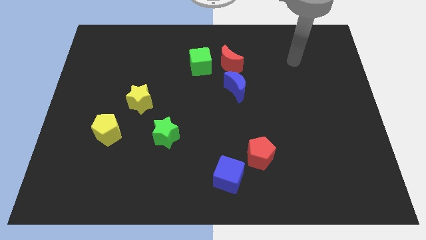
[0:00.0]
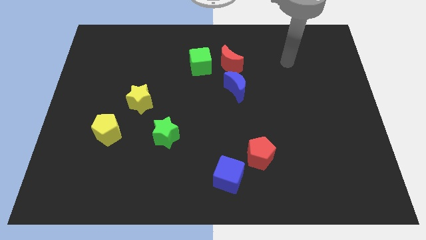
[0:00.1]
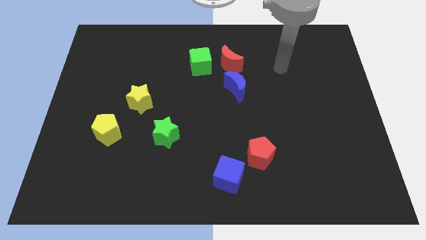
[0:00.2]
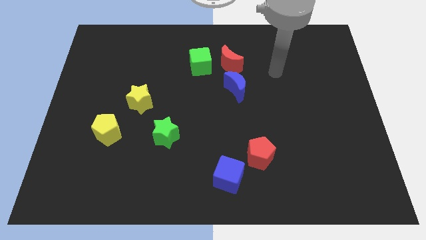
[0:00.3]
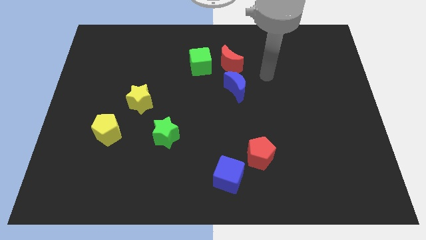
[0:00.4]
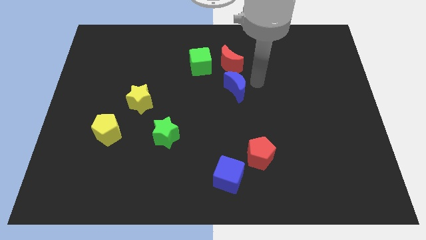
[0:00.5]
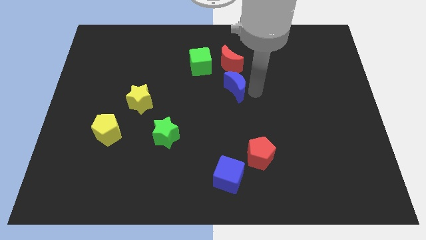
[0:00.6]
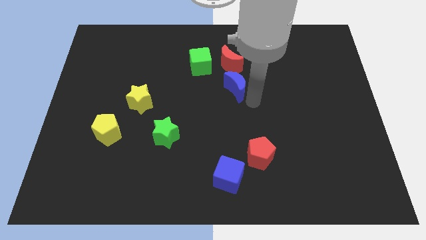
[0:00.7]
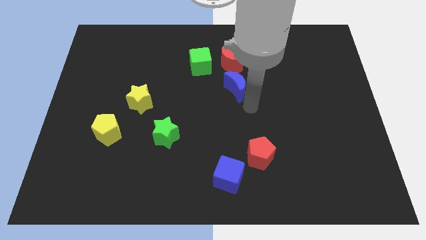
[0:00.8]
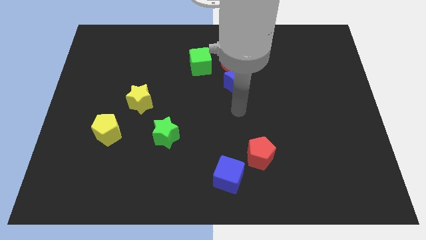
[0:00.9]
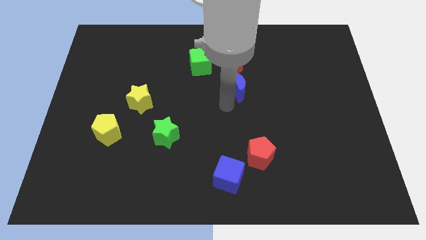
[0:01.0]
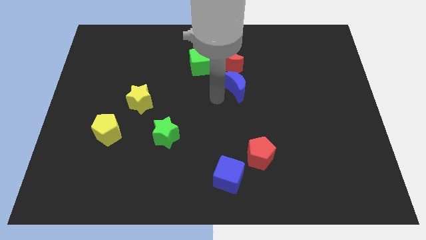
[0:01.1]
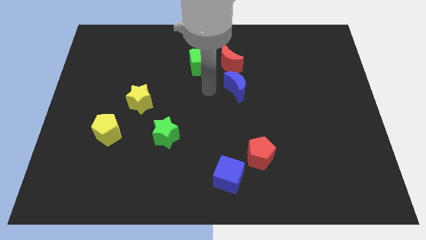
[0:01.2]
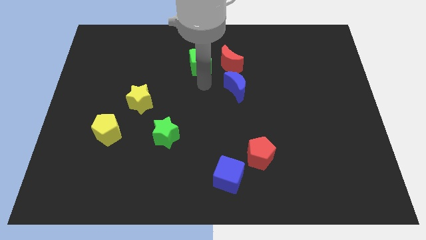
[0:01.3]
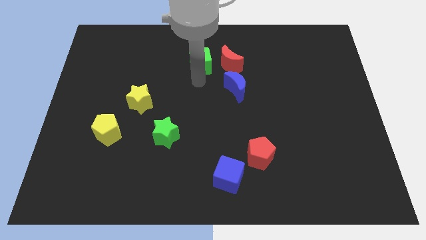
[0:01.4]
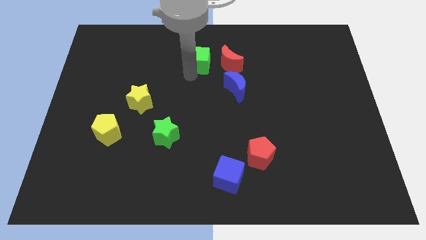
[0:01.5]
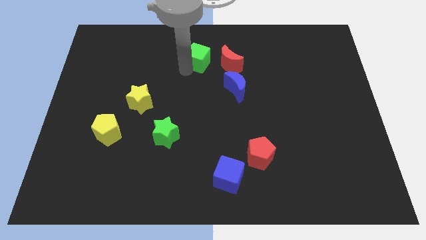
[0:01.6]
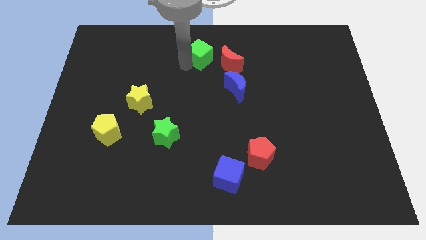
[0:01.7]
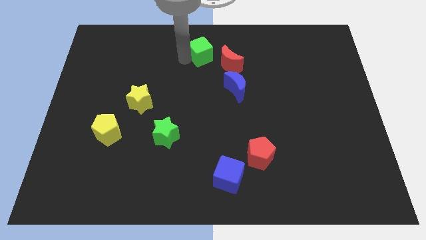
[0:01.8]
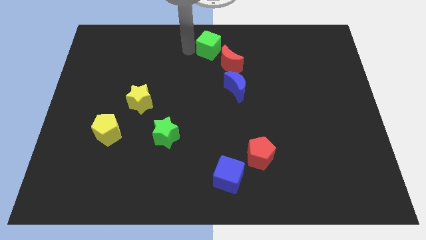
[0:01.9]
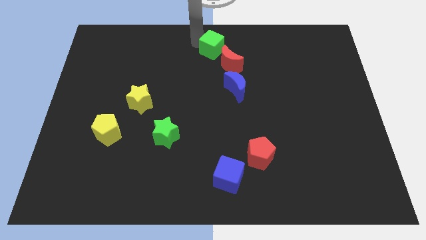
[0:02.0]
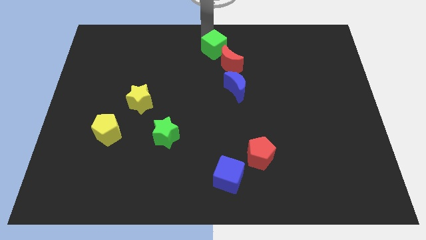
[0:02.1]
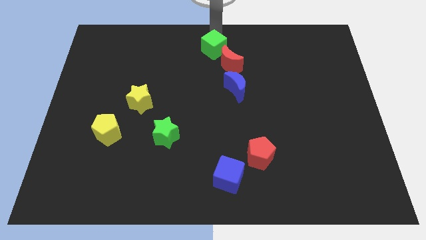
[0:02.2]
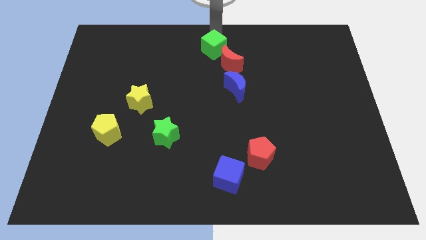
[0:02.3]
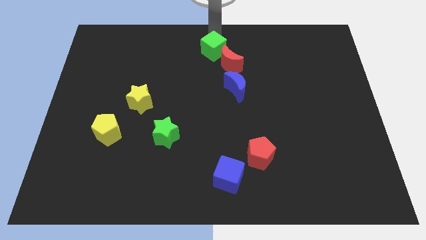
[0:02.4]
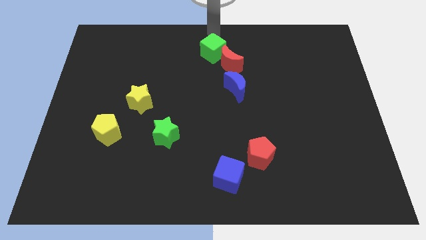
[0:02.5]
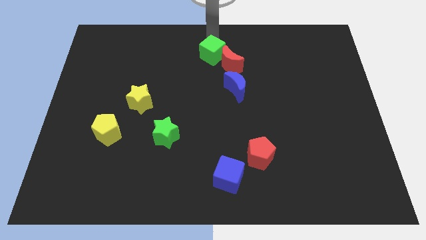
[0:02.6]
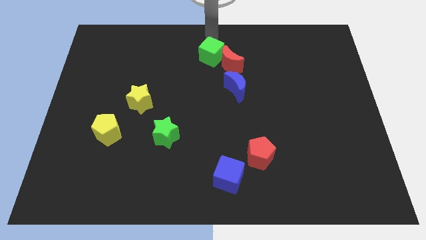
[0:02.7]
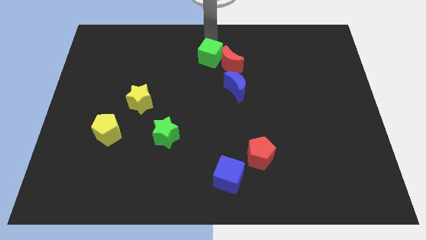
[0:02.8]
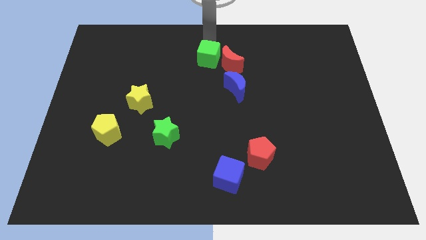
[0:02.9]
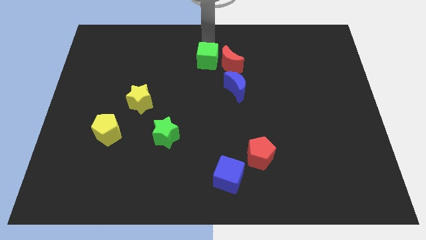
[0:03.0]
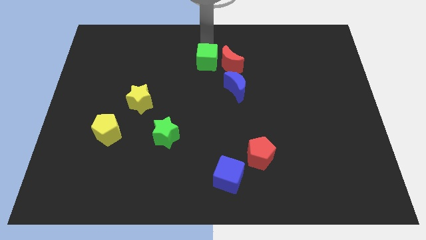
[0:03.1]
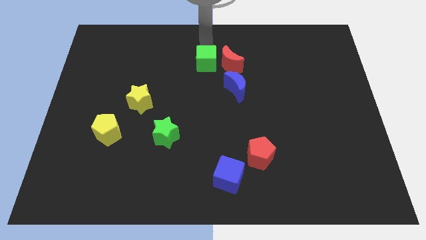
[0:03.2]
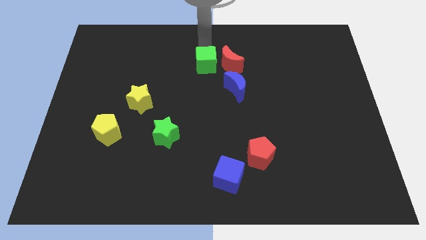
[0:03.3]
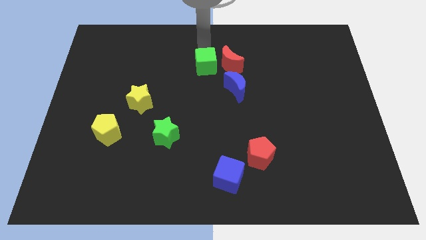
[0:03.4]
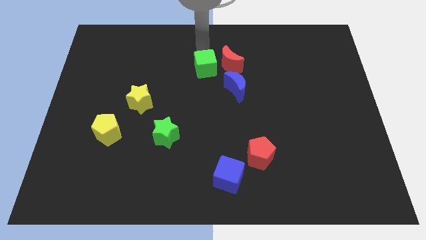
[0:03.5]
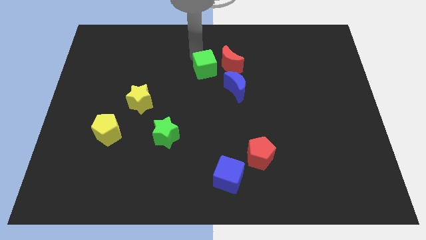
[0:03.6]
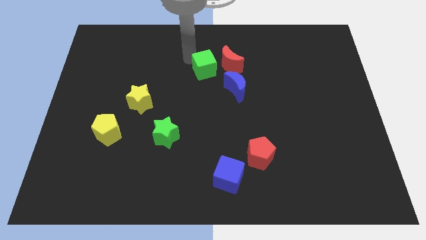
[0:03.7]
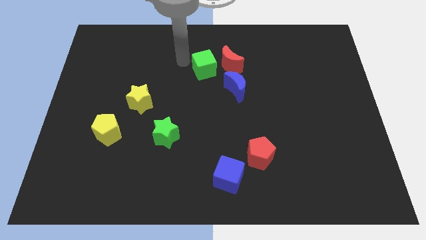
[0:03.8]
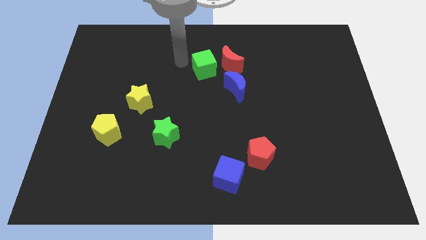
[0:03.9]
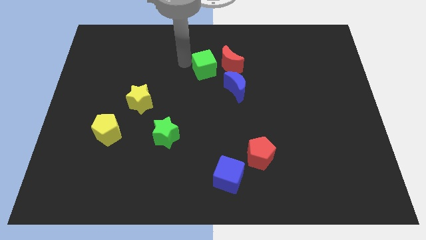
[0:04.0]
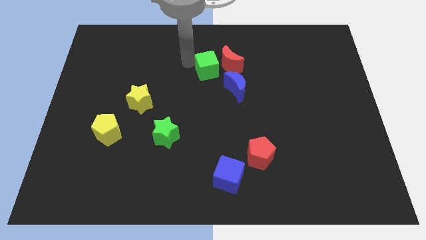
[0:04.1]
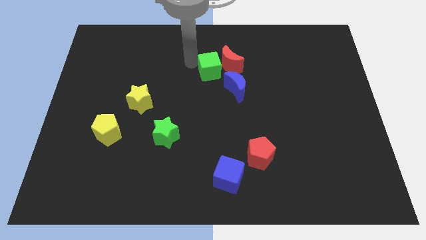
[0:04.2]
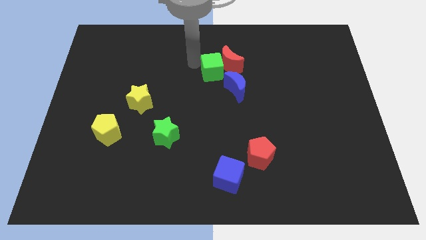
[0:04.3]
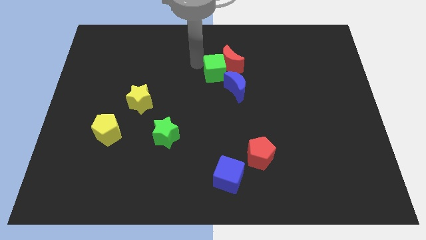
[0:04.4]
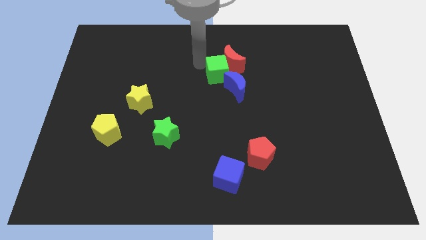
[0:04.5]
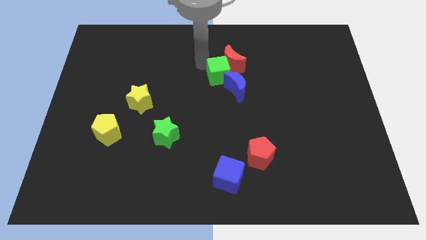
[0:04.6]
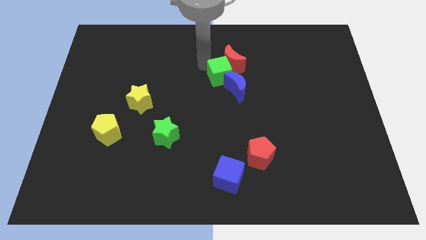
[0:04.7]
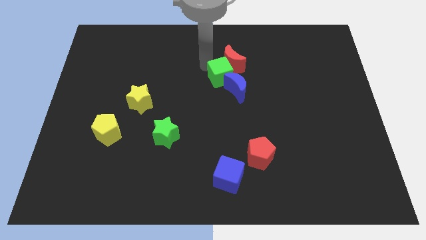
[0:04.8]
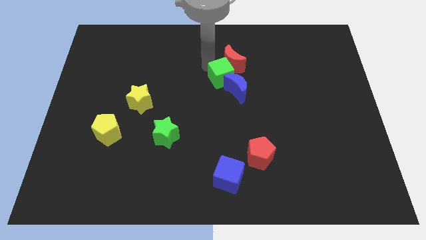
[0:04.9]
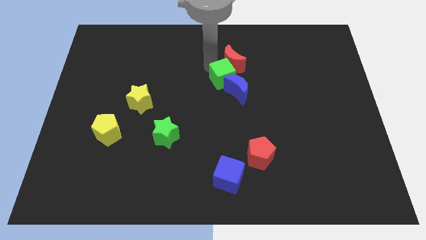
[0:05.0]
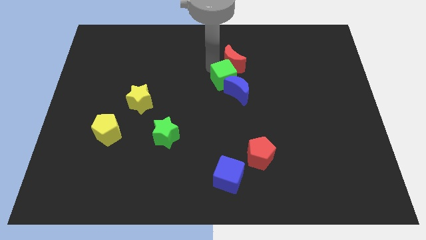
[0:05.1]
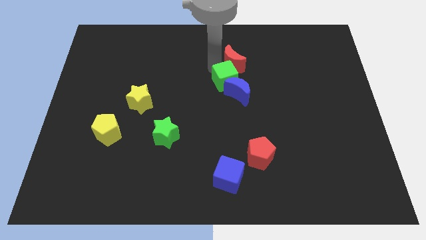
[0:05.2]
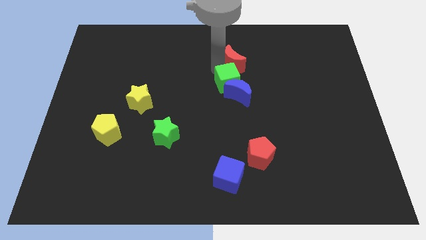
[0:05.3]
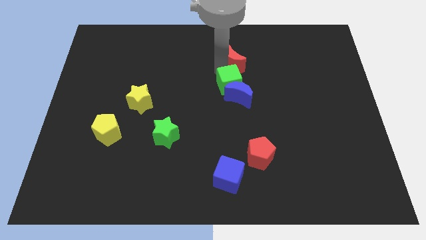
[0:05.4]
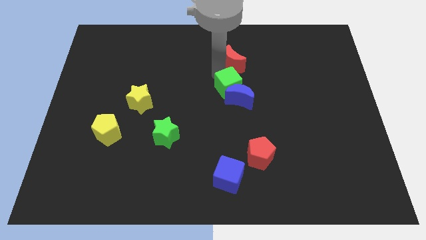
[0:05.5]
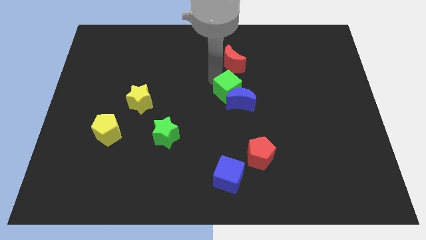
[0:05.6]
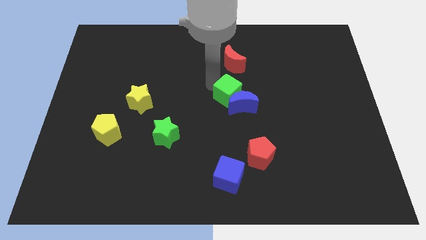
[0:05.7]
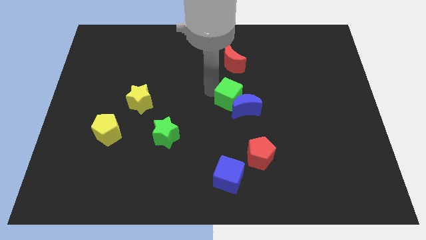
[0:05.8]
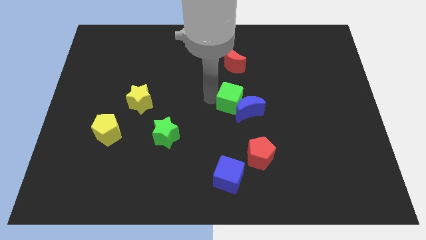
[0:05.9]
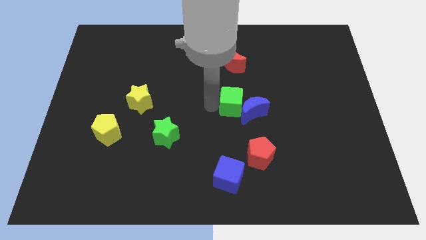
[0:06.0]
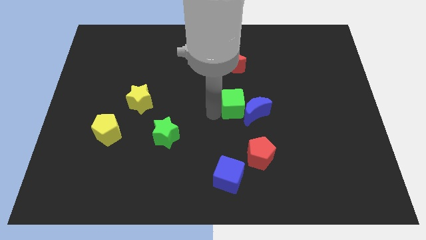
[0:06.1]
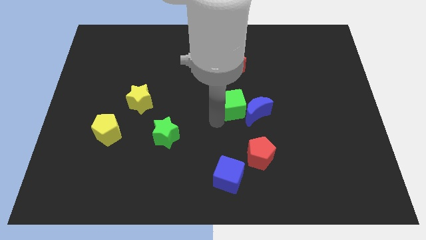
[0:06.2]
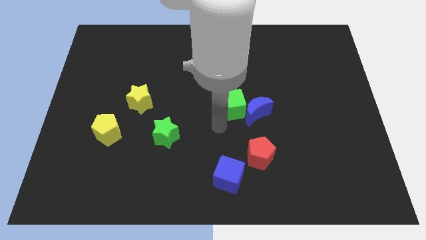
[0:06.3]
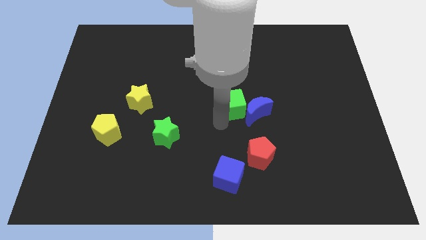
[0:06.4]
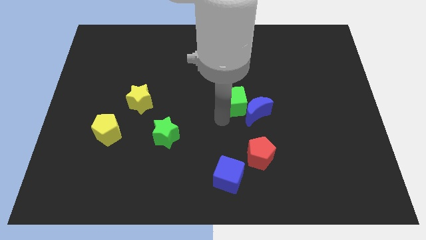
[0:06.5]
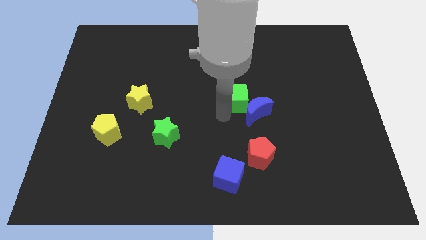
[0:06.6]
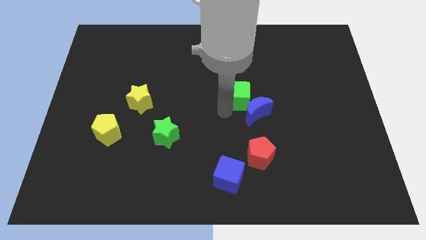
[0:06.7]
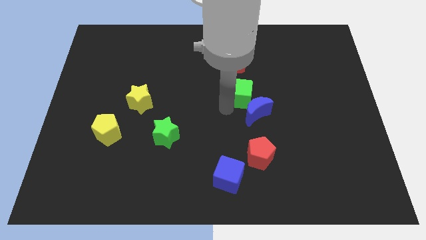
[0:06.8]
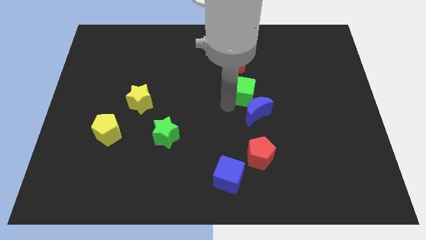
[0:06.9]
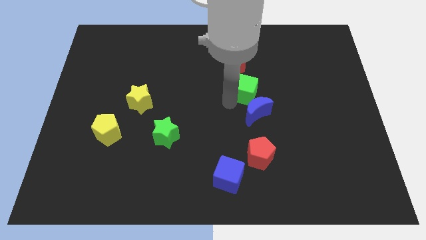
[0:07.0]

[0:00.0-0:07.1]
push the green cube right a little bit

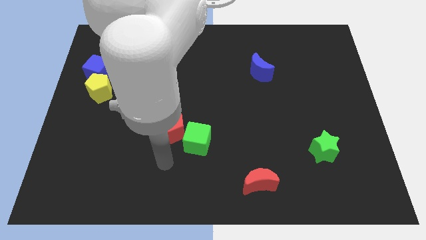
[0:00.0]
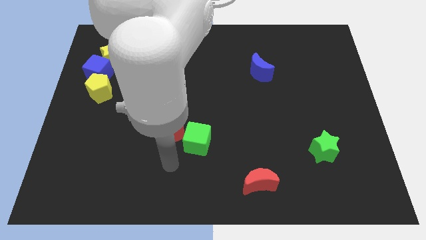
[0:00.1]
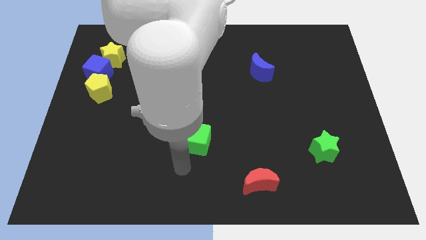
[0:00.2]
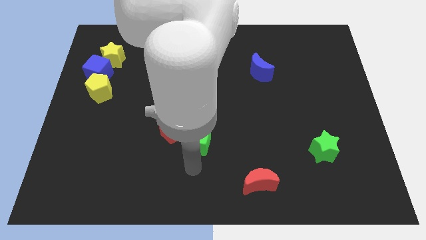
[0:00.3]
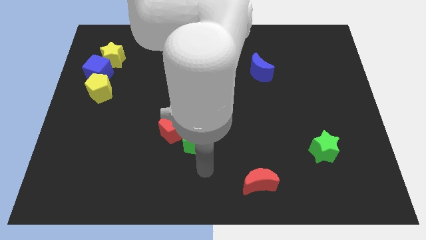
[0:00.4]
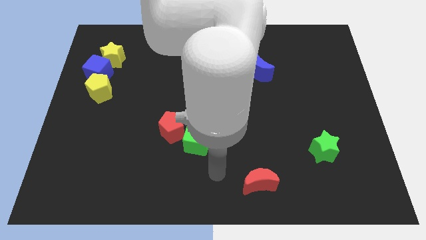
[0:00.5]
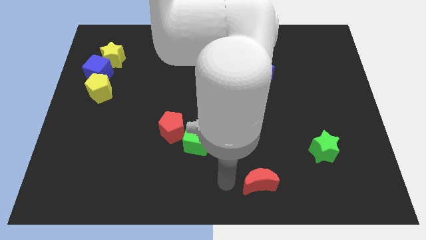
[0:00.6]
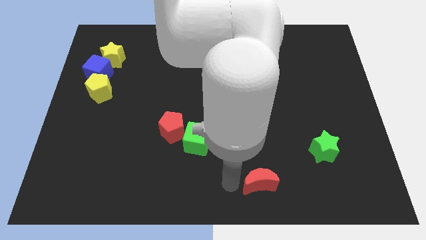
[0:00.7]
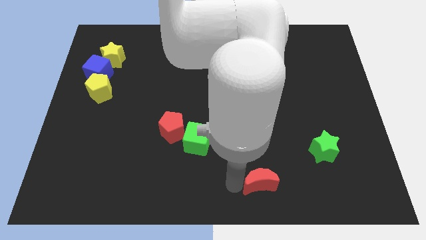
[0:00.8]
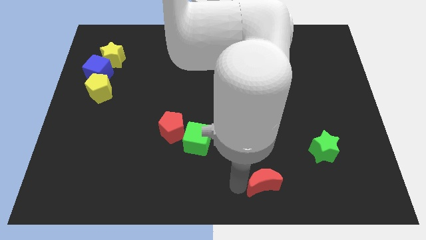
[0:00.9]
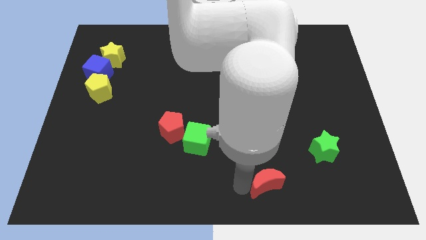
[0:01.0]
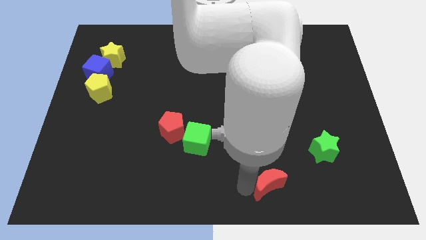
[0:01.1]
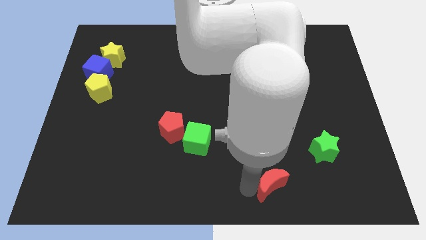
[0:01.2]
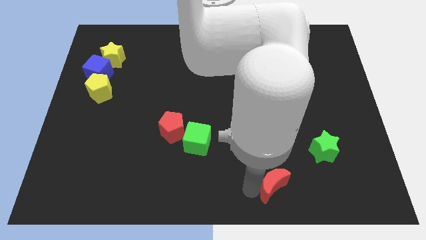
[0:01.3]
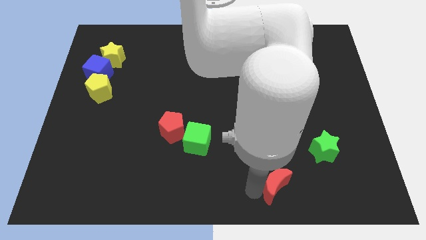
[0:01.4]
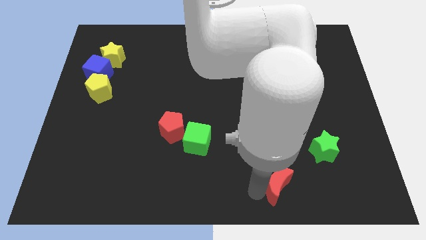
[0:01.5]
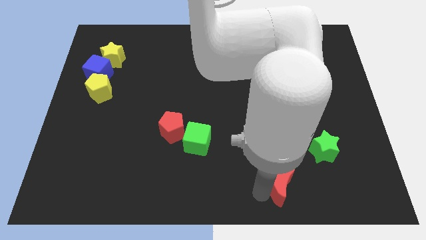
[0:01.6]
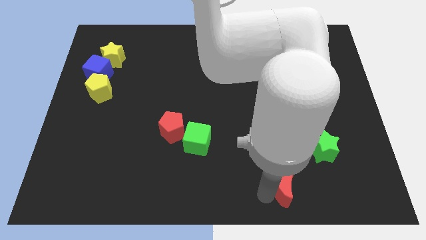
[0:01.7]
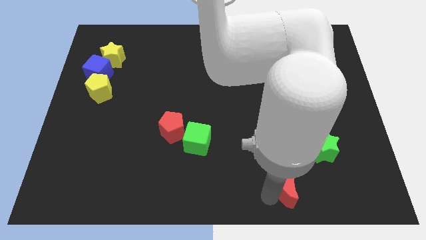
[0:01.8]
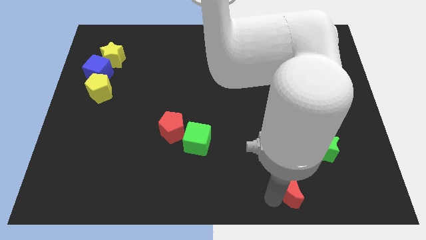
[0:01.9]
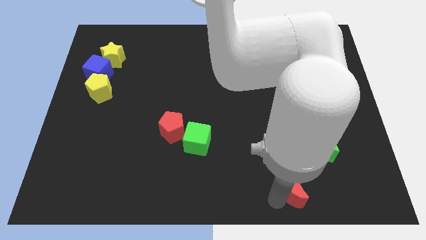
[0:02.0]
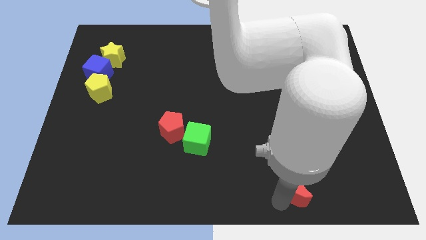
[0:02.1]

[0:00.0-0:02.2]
push the red moon a little to the right
